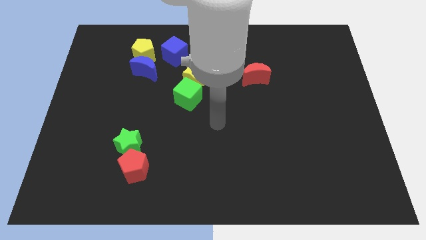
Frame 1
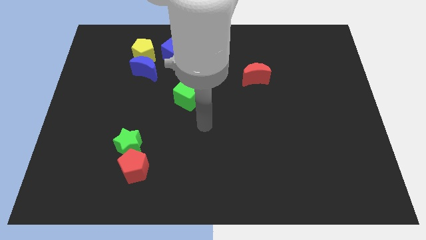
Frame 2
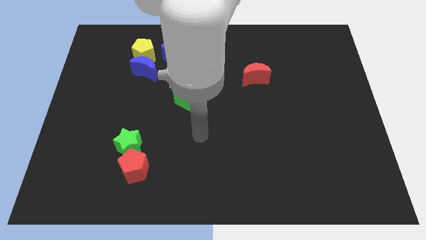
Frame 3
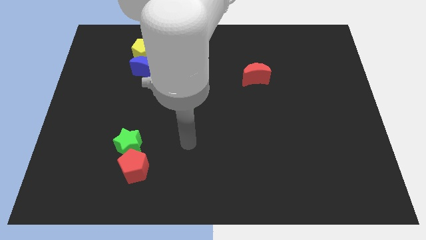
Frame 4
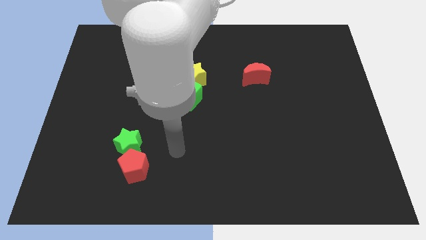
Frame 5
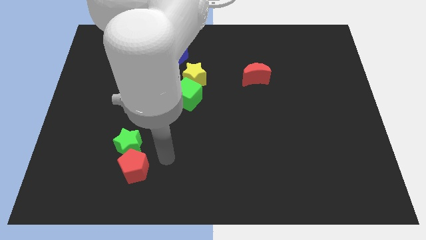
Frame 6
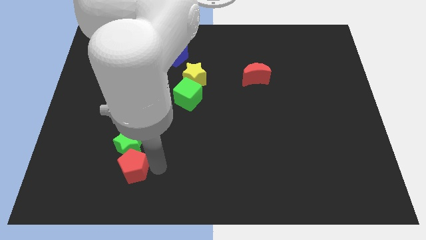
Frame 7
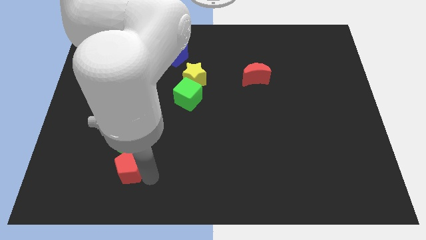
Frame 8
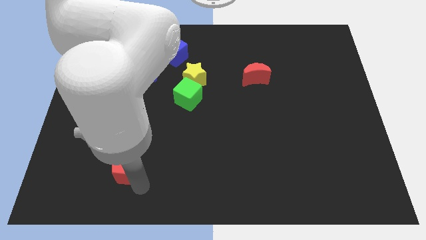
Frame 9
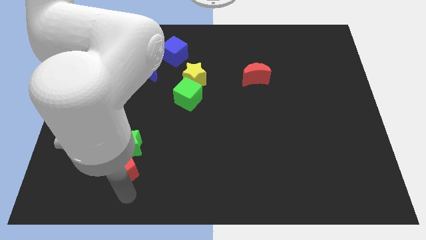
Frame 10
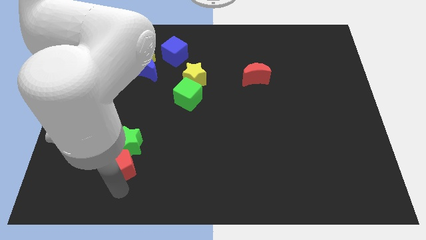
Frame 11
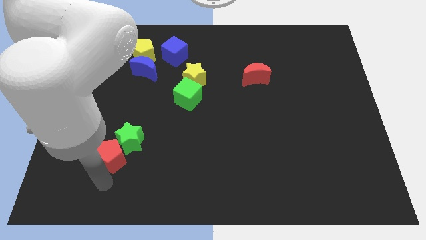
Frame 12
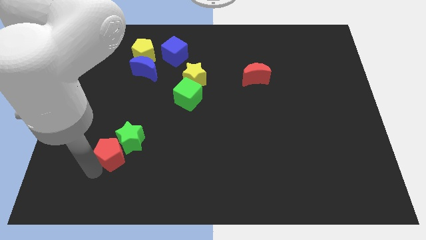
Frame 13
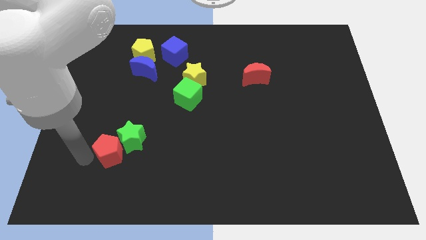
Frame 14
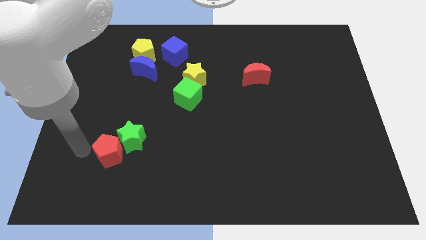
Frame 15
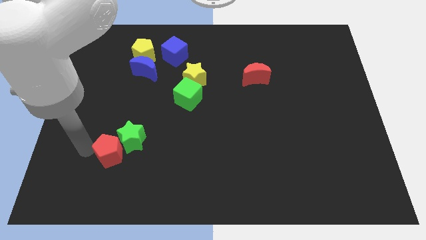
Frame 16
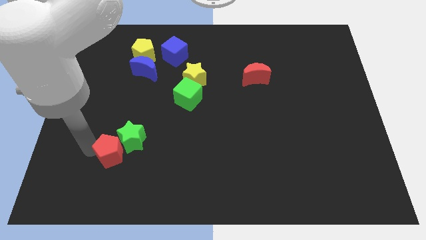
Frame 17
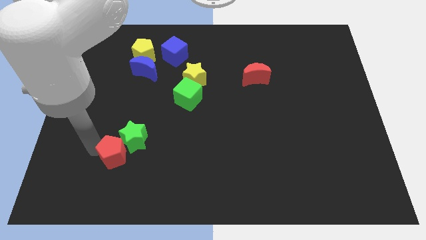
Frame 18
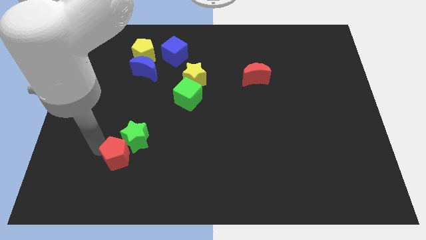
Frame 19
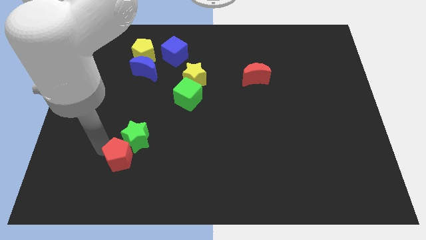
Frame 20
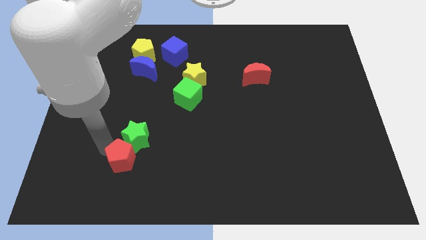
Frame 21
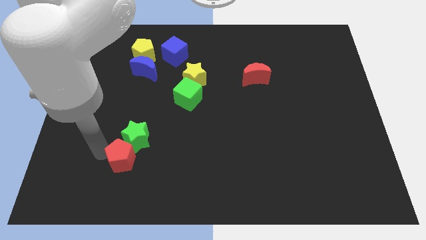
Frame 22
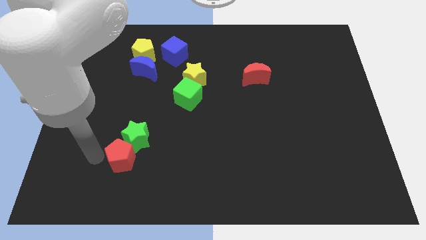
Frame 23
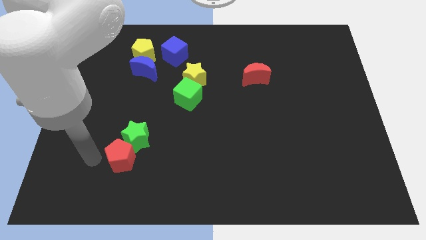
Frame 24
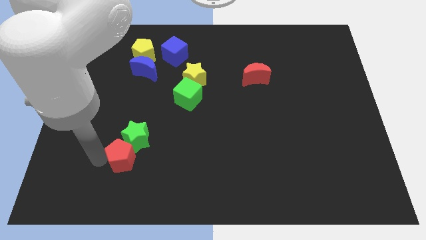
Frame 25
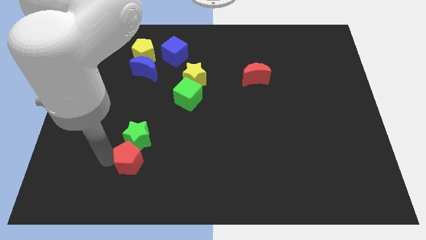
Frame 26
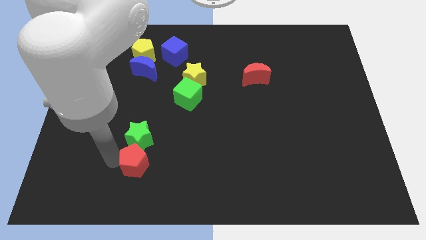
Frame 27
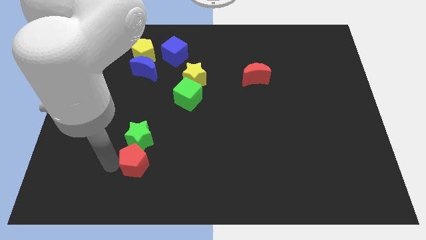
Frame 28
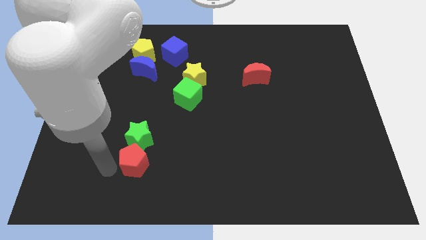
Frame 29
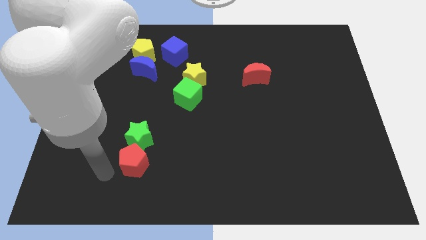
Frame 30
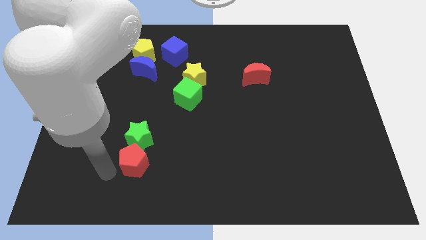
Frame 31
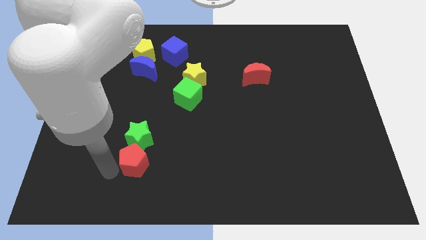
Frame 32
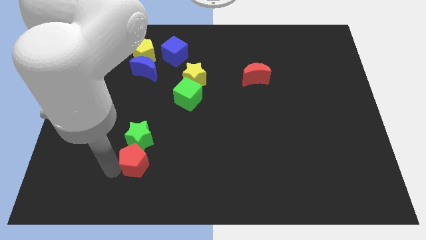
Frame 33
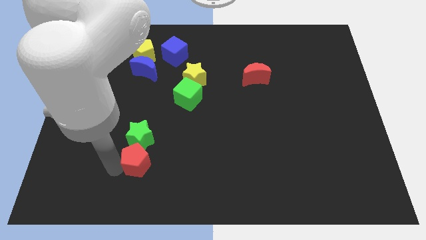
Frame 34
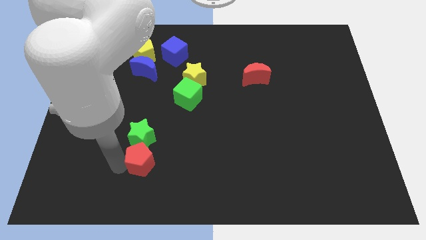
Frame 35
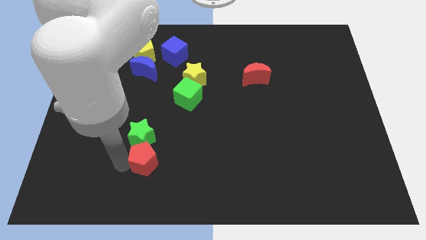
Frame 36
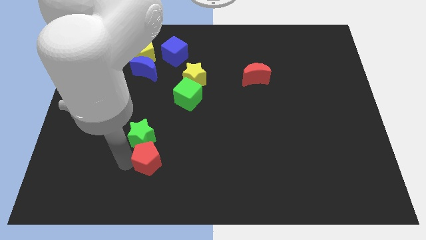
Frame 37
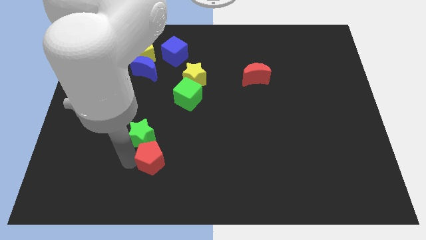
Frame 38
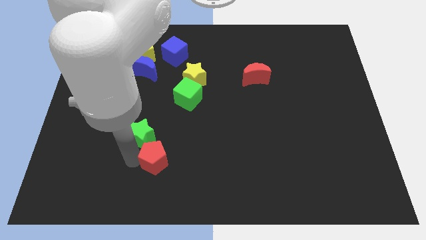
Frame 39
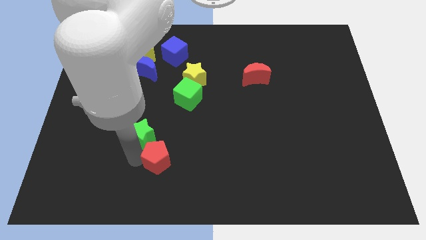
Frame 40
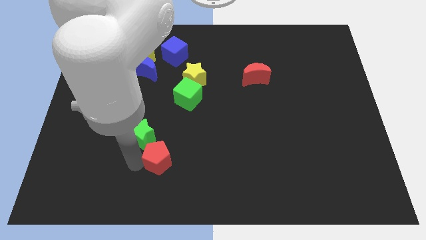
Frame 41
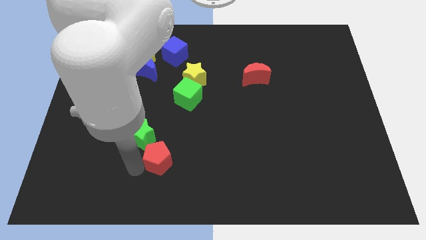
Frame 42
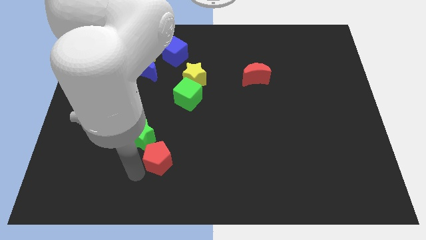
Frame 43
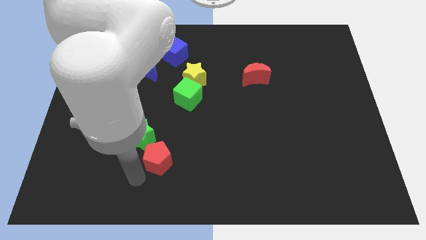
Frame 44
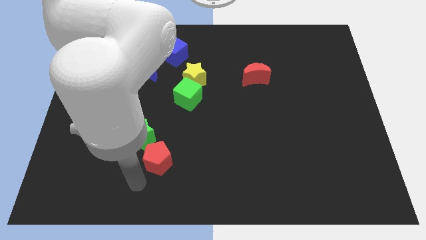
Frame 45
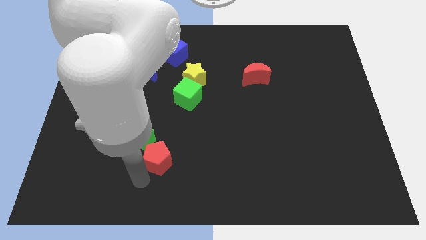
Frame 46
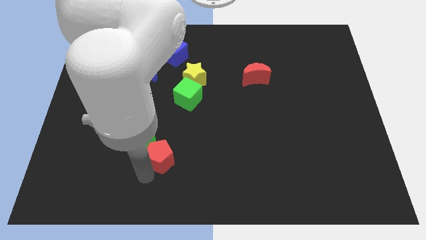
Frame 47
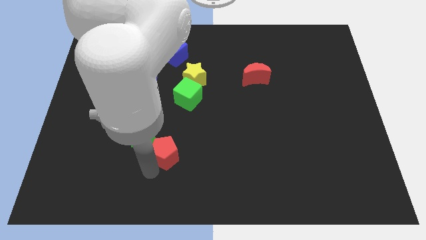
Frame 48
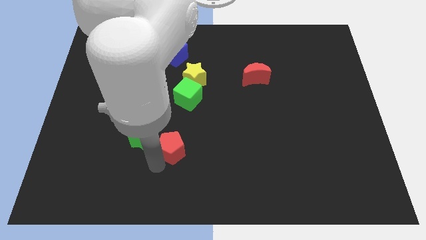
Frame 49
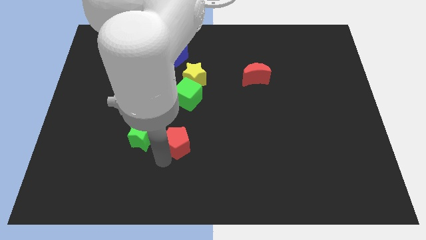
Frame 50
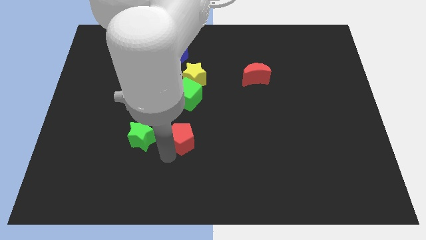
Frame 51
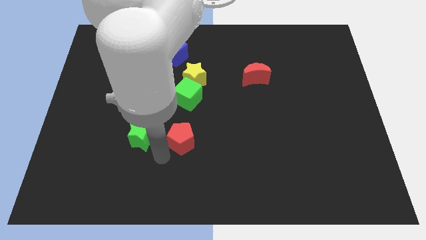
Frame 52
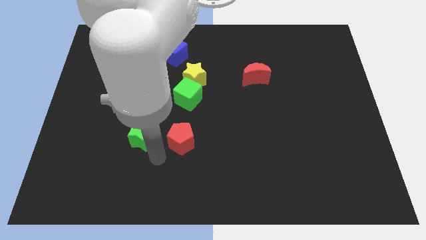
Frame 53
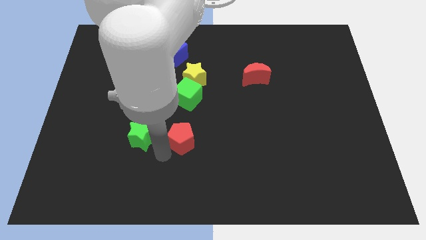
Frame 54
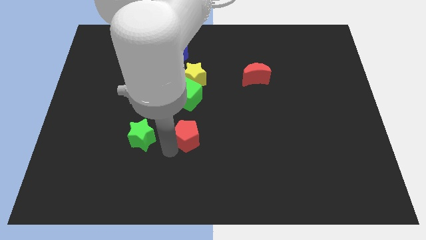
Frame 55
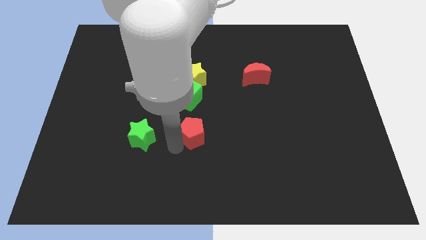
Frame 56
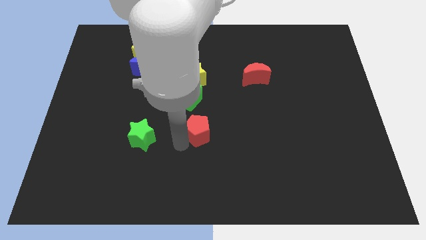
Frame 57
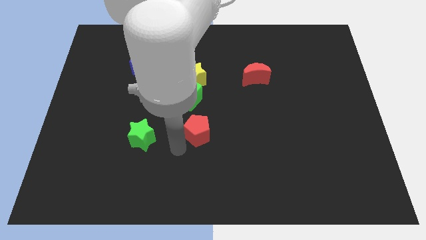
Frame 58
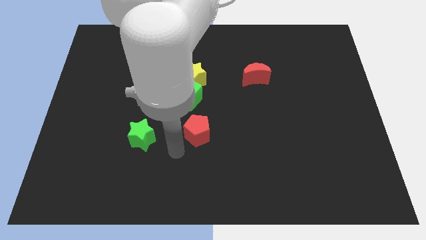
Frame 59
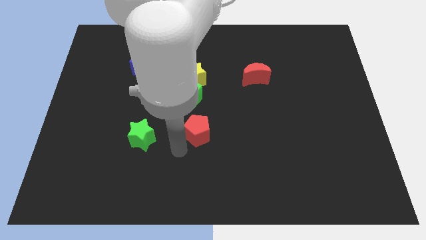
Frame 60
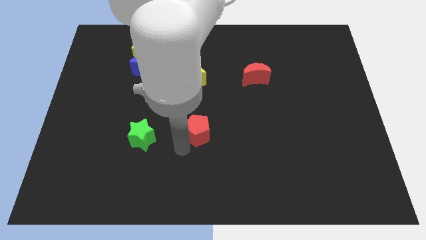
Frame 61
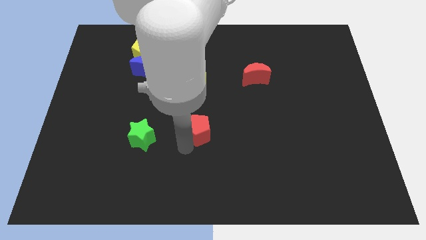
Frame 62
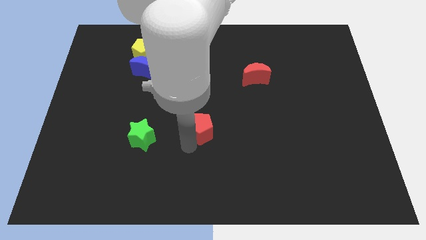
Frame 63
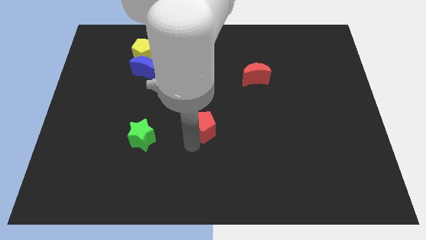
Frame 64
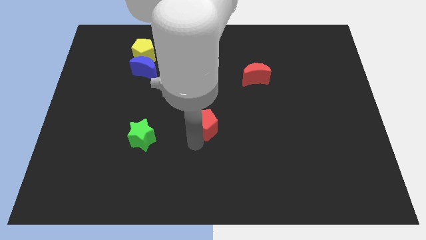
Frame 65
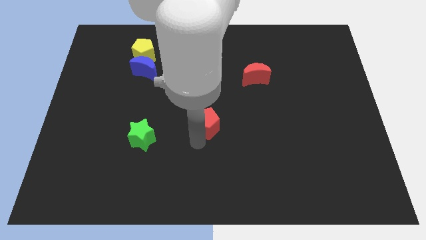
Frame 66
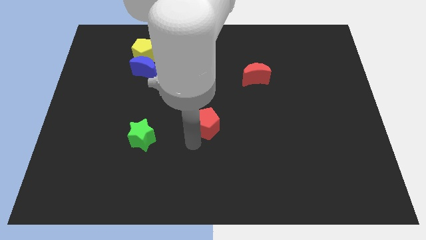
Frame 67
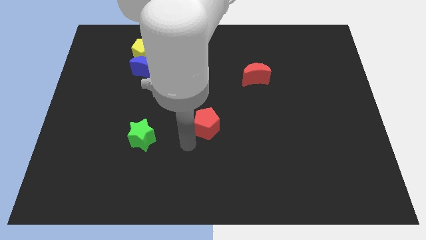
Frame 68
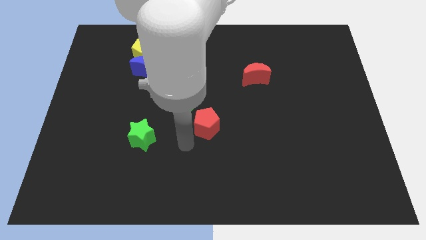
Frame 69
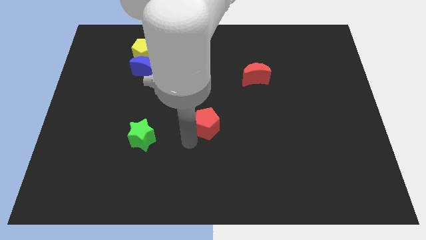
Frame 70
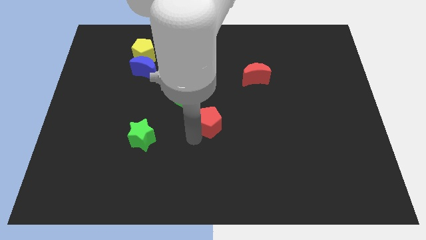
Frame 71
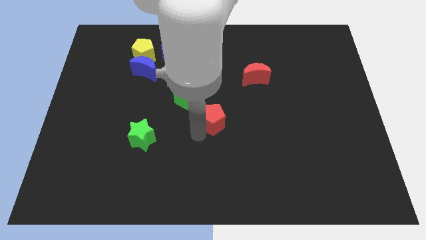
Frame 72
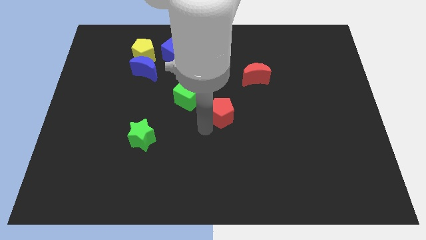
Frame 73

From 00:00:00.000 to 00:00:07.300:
slide the red pentagon up and right
